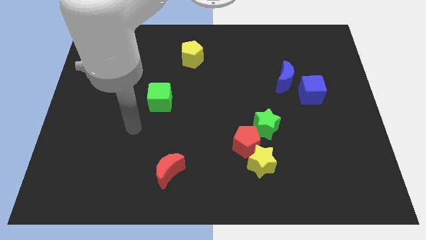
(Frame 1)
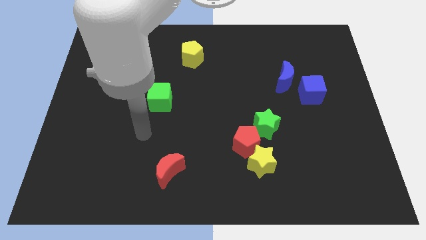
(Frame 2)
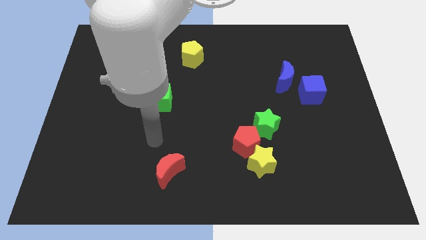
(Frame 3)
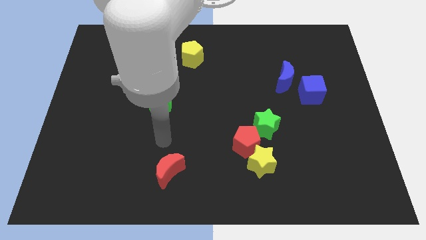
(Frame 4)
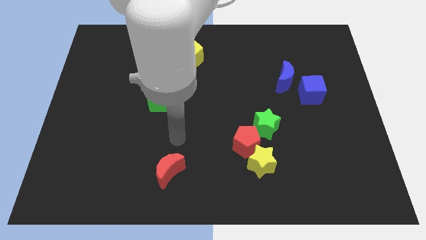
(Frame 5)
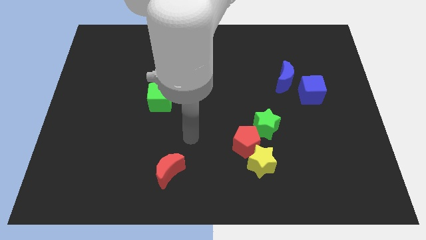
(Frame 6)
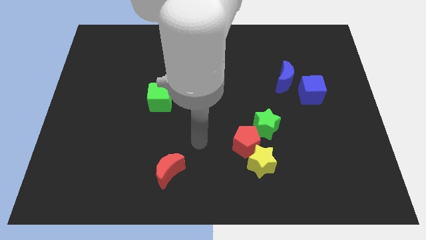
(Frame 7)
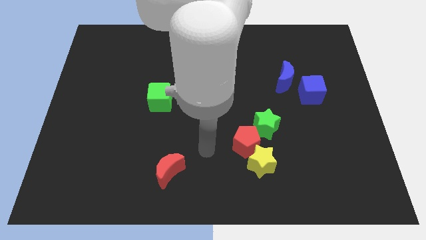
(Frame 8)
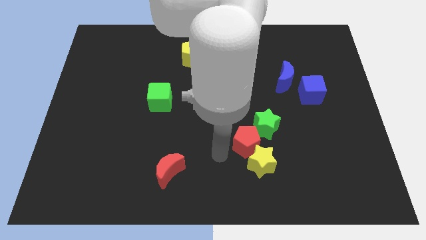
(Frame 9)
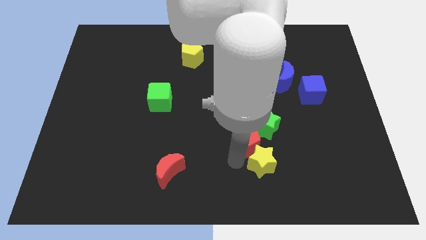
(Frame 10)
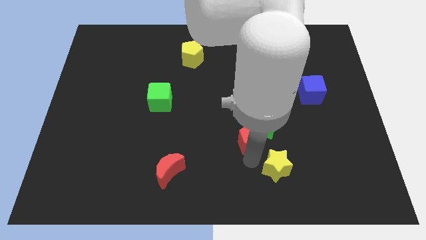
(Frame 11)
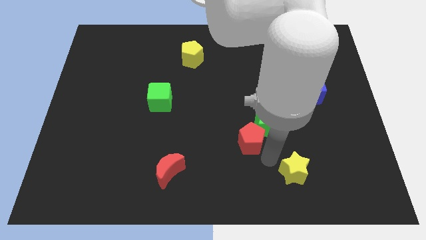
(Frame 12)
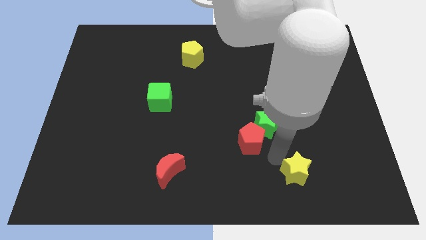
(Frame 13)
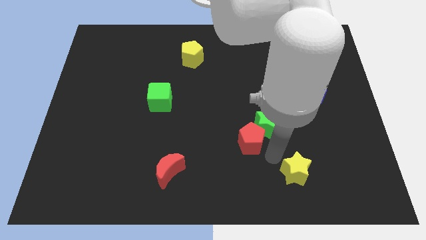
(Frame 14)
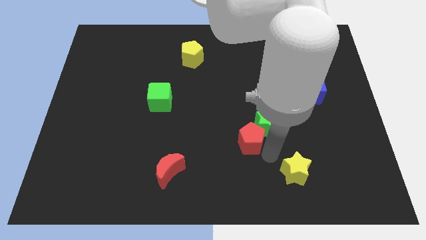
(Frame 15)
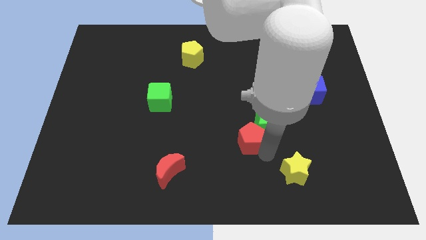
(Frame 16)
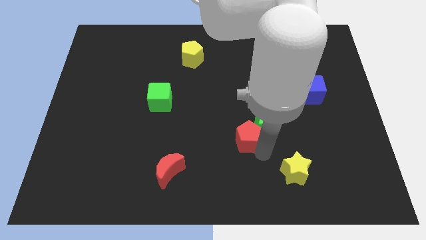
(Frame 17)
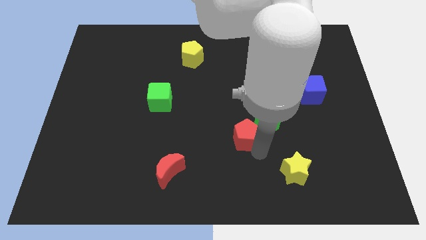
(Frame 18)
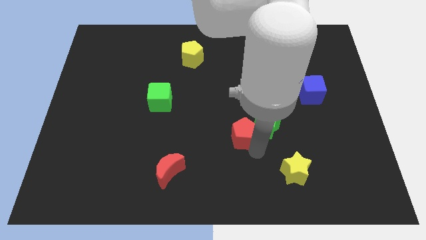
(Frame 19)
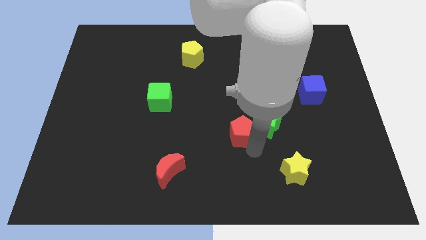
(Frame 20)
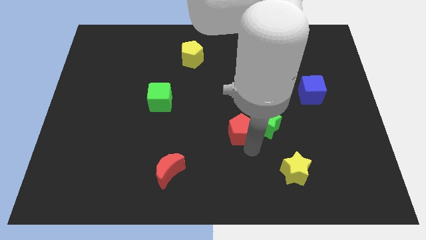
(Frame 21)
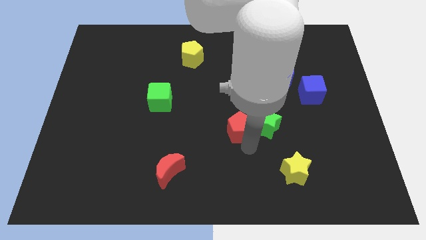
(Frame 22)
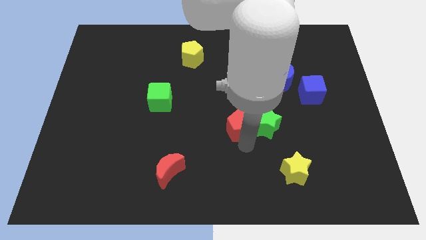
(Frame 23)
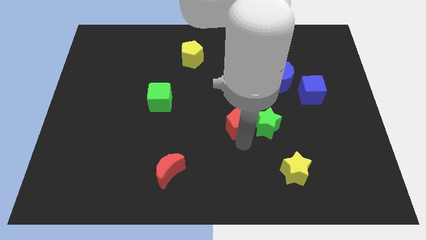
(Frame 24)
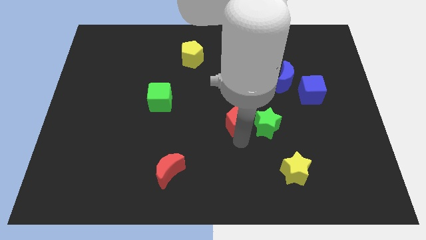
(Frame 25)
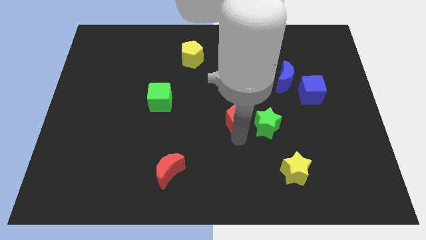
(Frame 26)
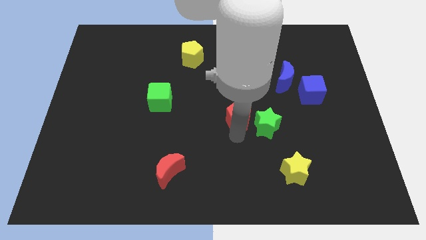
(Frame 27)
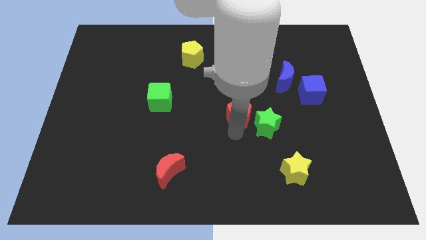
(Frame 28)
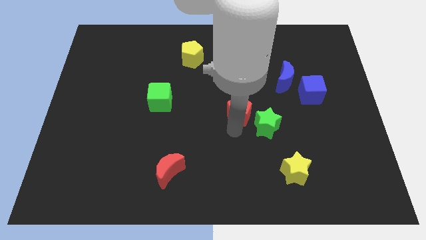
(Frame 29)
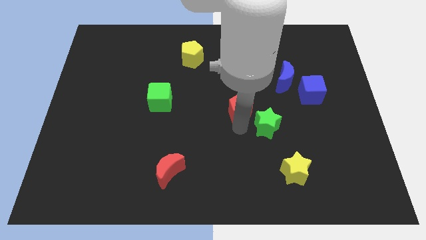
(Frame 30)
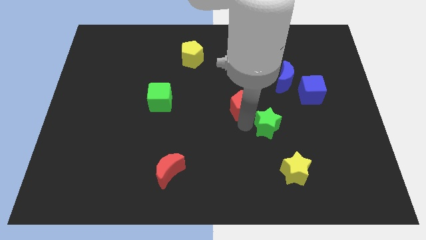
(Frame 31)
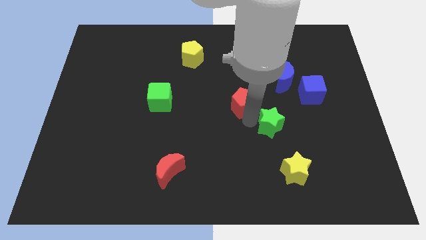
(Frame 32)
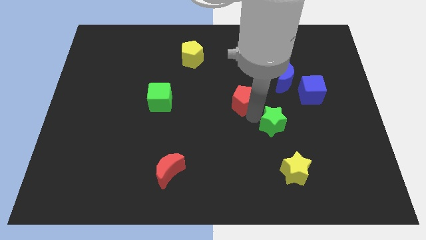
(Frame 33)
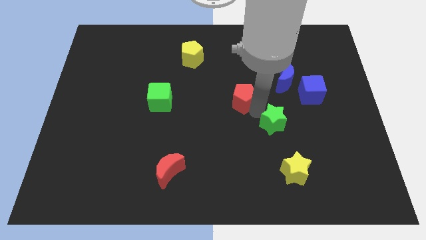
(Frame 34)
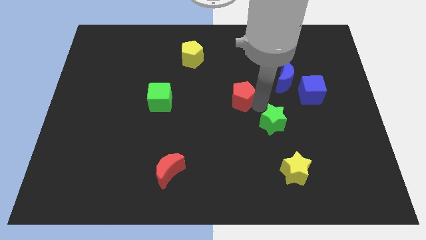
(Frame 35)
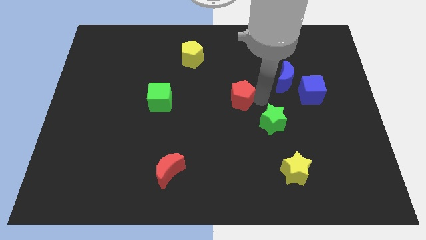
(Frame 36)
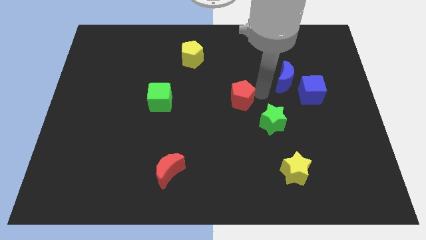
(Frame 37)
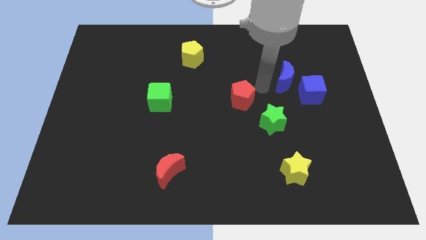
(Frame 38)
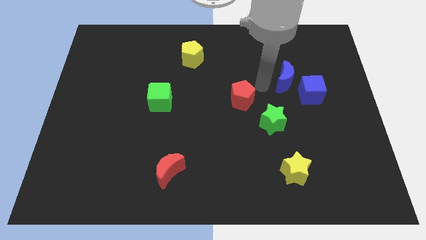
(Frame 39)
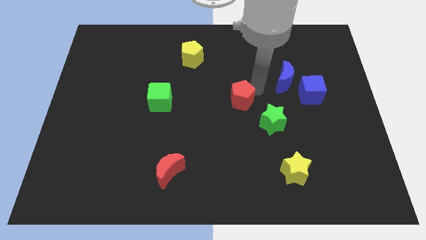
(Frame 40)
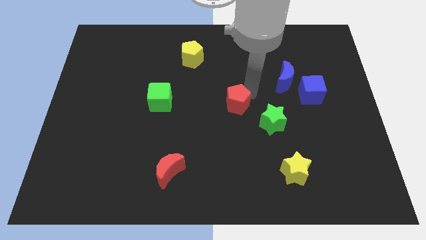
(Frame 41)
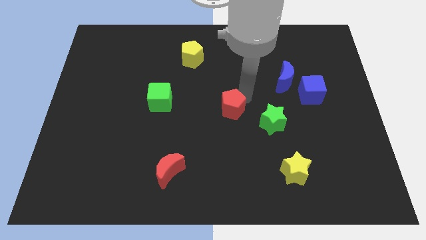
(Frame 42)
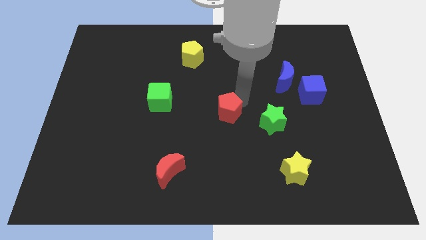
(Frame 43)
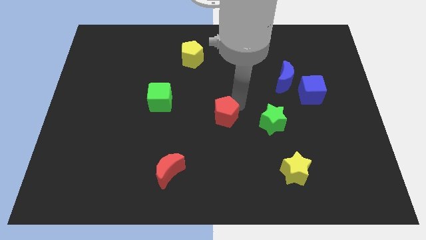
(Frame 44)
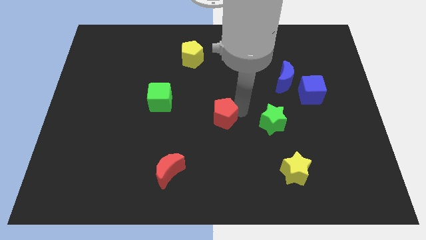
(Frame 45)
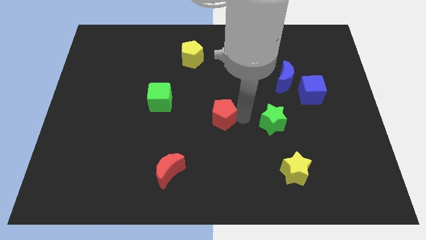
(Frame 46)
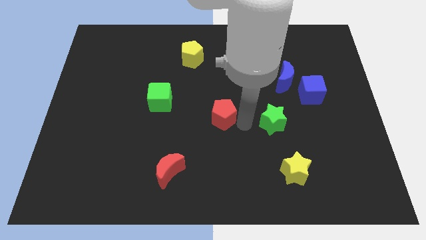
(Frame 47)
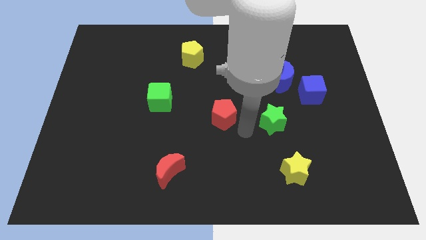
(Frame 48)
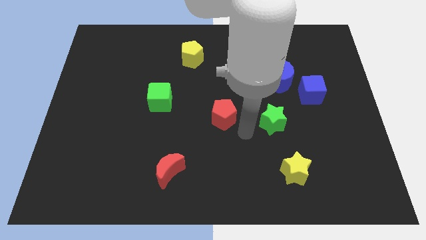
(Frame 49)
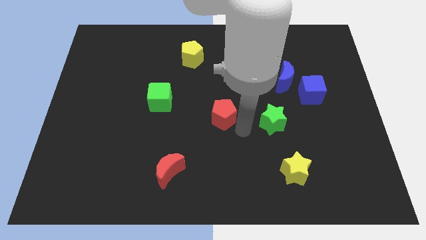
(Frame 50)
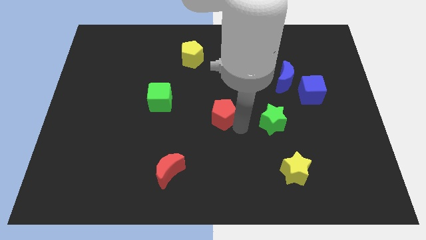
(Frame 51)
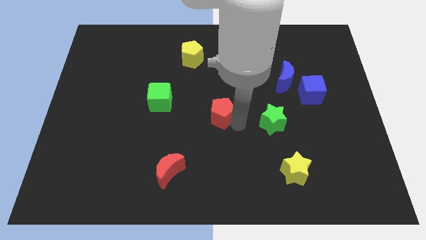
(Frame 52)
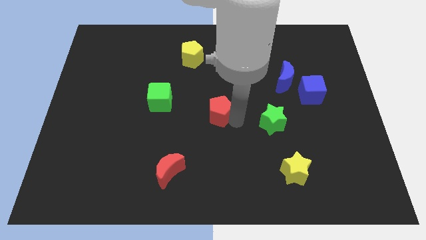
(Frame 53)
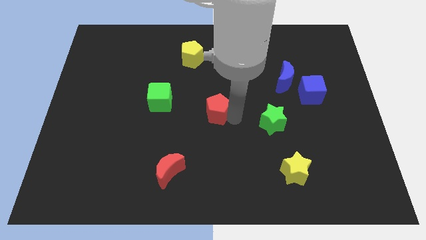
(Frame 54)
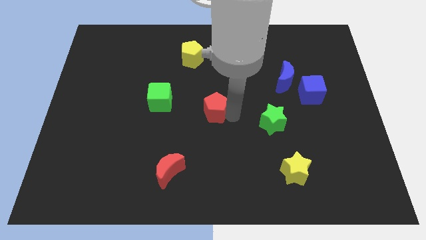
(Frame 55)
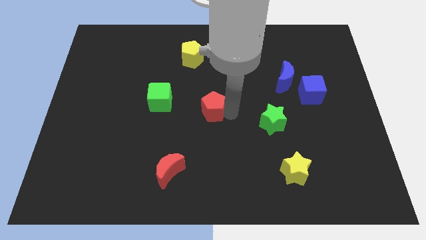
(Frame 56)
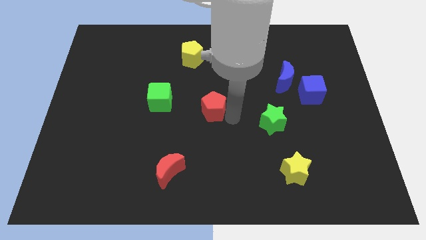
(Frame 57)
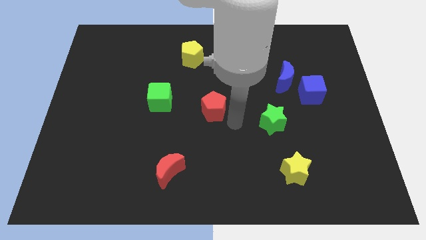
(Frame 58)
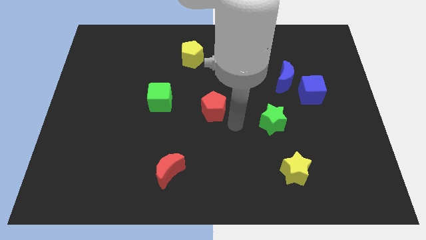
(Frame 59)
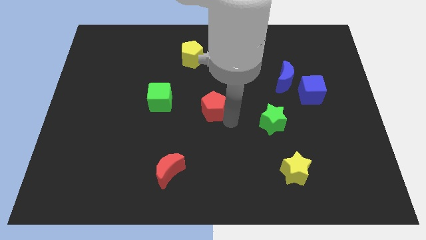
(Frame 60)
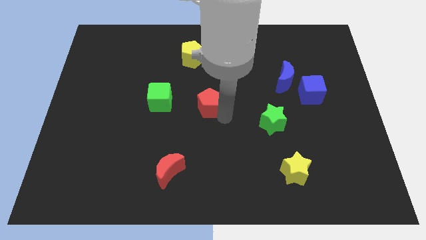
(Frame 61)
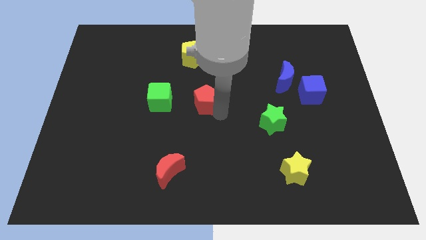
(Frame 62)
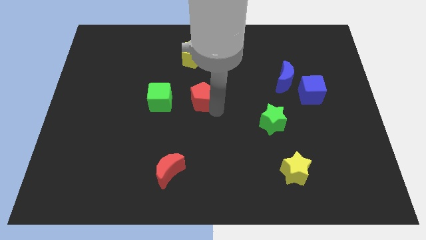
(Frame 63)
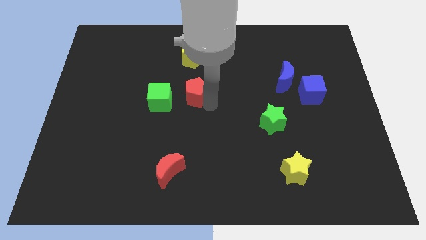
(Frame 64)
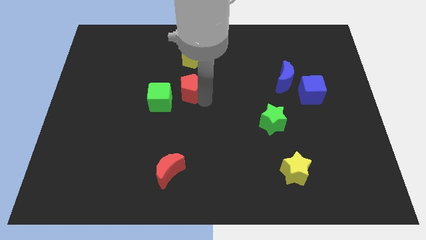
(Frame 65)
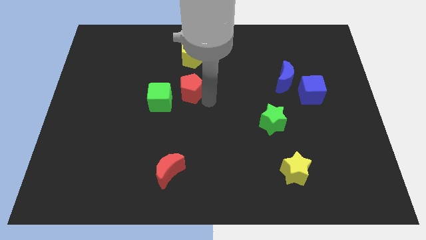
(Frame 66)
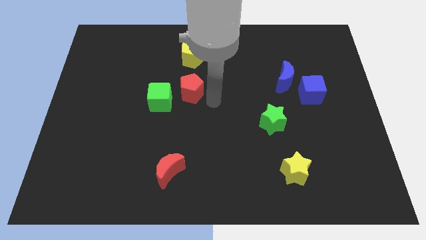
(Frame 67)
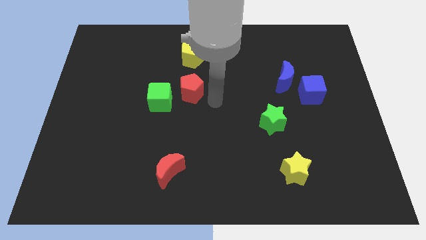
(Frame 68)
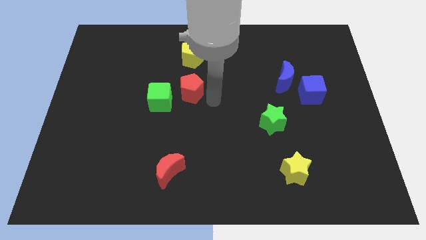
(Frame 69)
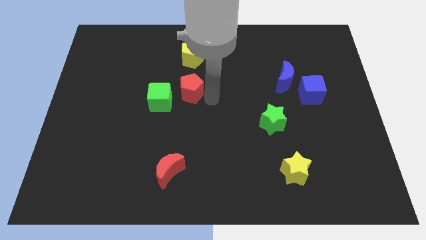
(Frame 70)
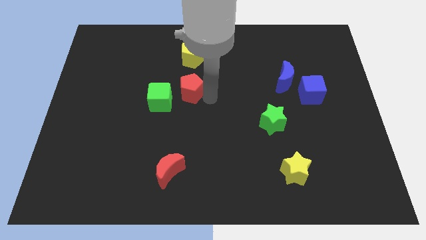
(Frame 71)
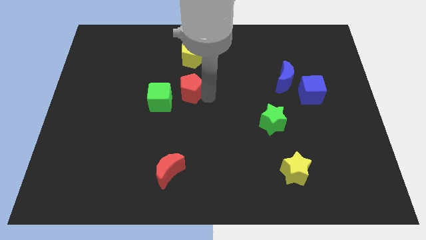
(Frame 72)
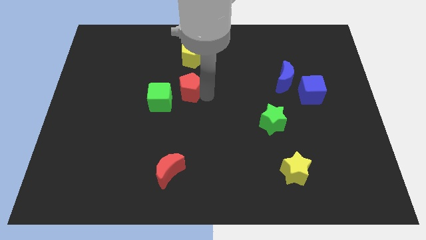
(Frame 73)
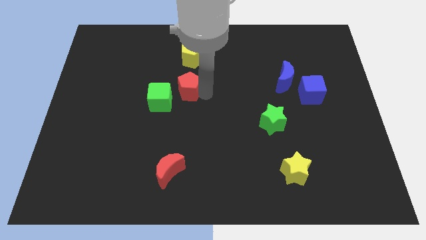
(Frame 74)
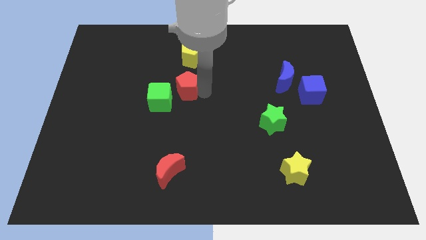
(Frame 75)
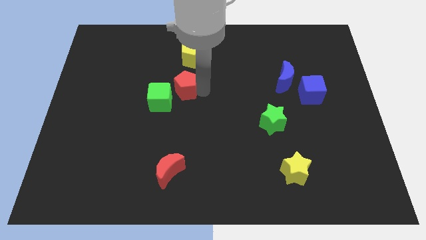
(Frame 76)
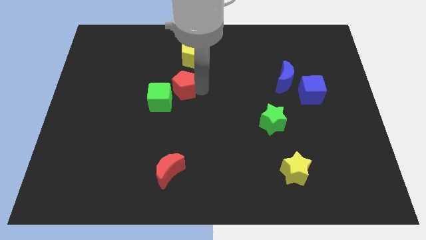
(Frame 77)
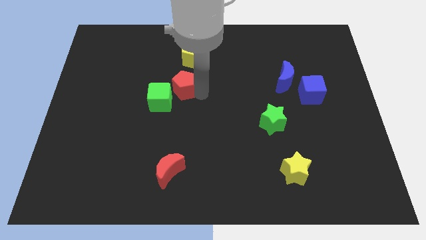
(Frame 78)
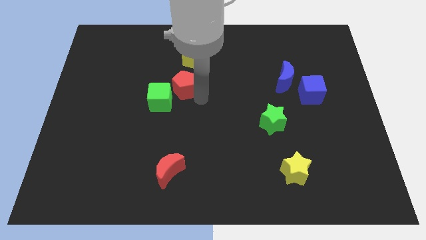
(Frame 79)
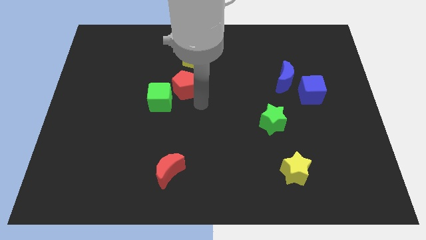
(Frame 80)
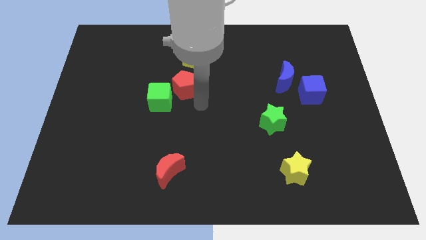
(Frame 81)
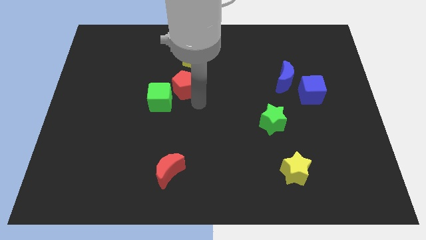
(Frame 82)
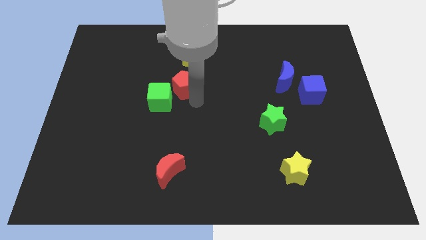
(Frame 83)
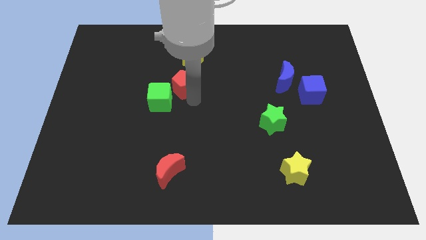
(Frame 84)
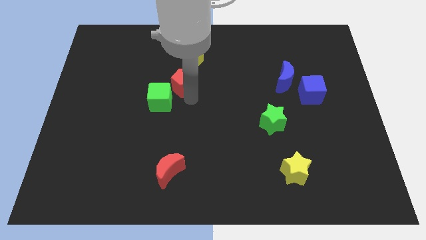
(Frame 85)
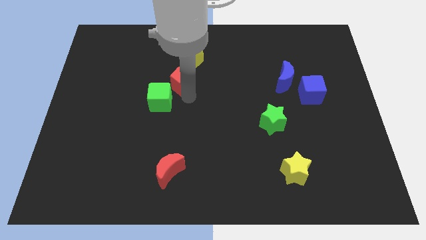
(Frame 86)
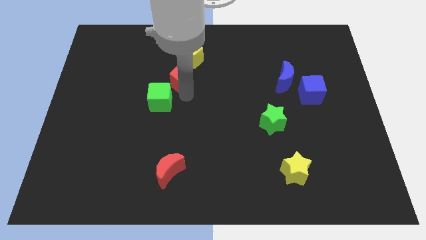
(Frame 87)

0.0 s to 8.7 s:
put the red pentagon diagonally down and to the left of the yellow pentagon
